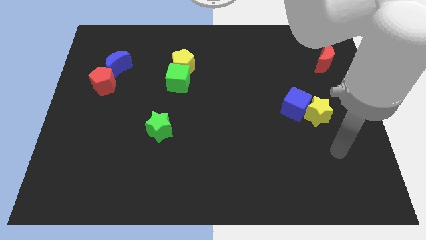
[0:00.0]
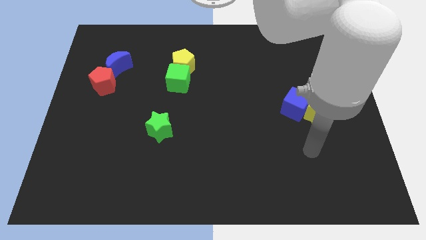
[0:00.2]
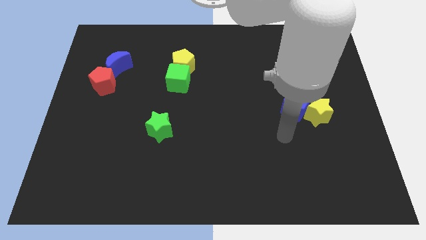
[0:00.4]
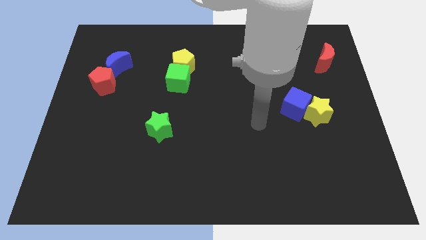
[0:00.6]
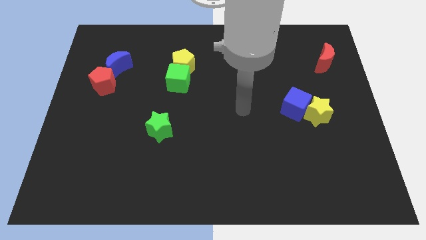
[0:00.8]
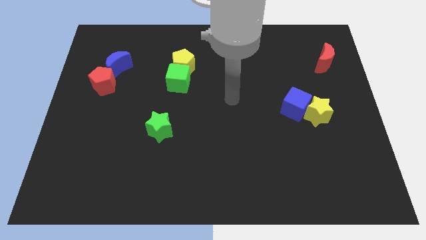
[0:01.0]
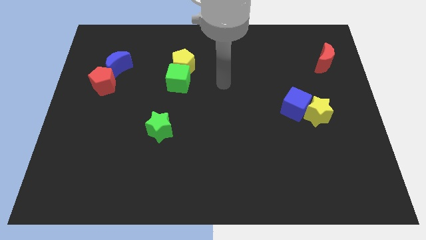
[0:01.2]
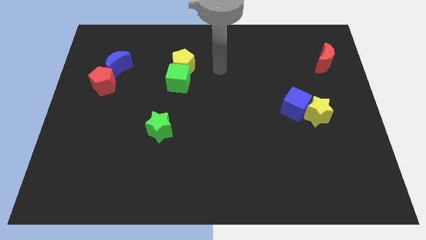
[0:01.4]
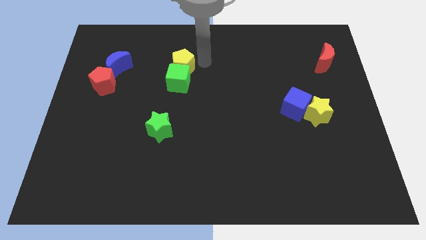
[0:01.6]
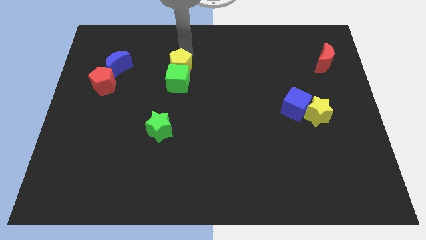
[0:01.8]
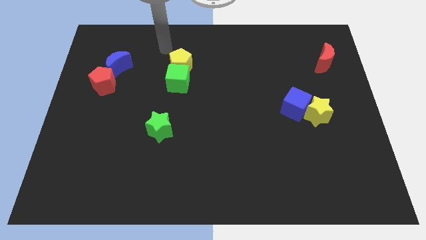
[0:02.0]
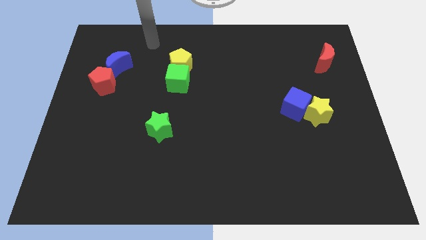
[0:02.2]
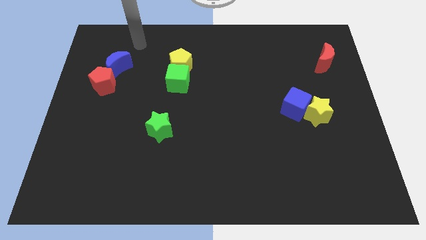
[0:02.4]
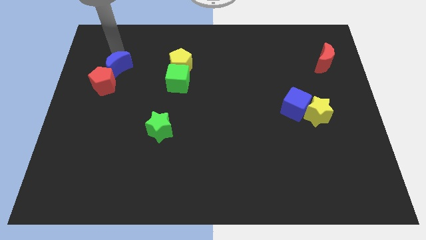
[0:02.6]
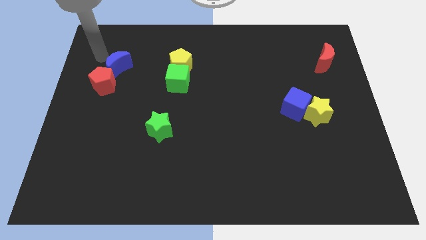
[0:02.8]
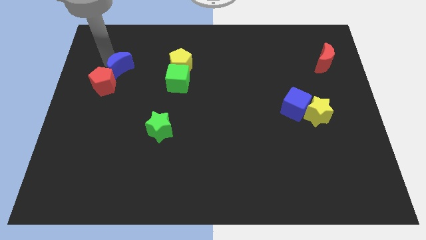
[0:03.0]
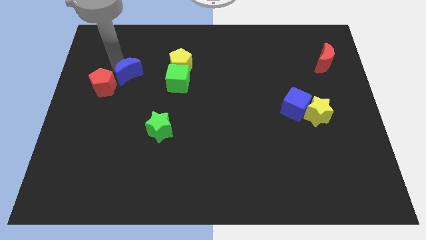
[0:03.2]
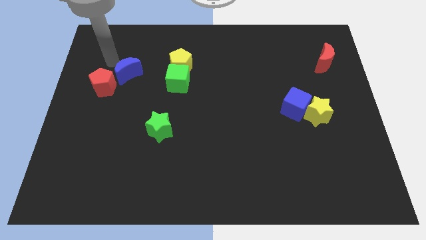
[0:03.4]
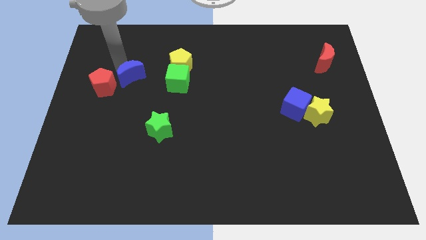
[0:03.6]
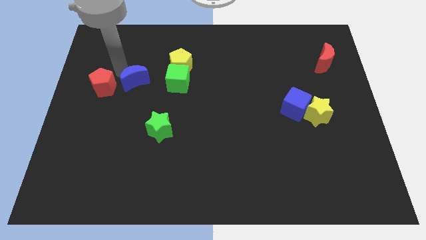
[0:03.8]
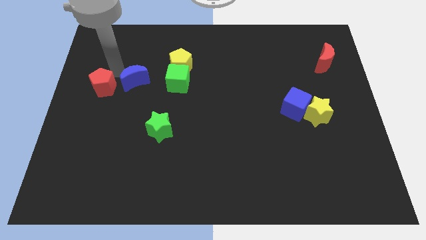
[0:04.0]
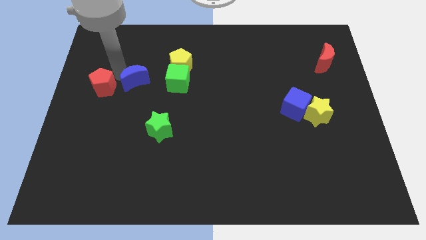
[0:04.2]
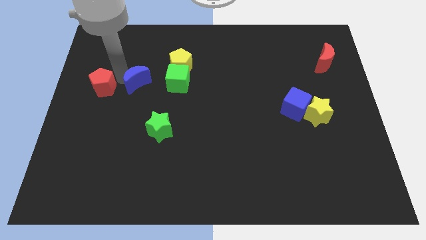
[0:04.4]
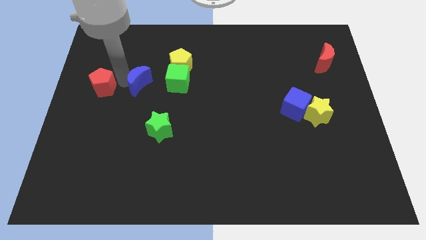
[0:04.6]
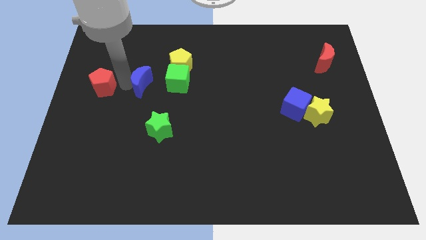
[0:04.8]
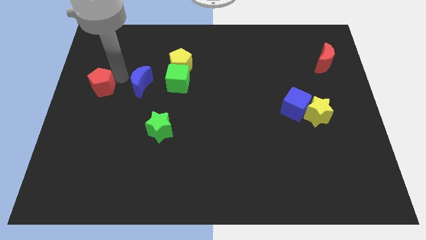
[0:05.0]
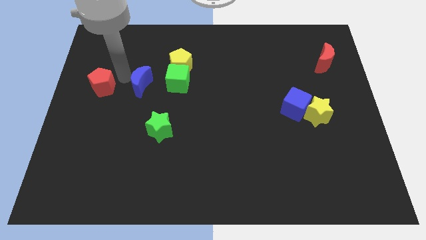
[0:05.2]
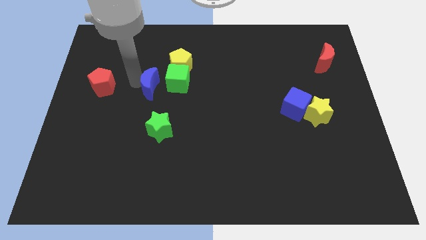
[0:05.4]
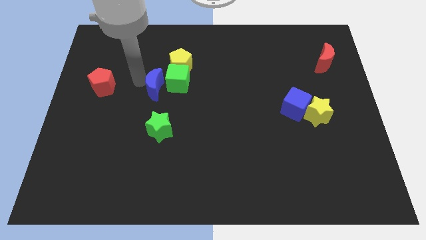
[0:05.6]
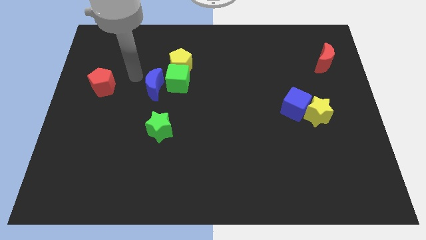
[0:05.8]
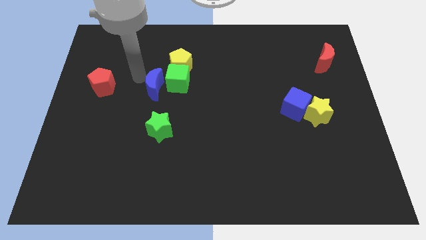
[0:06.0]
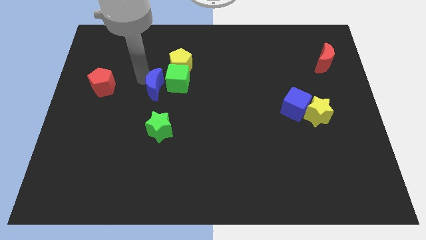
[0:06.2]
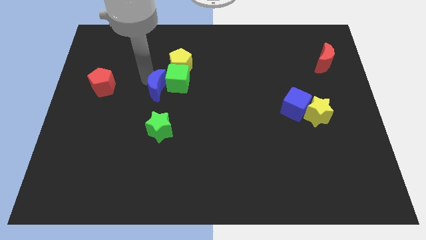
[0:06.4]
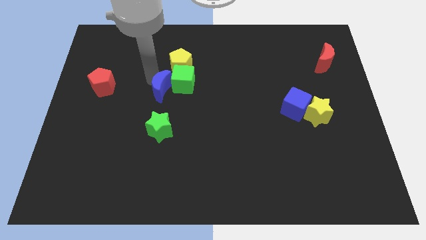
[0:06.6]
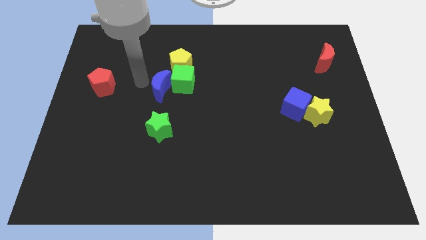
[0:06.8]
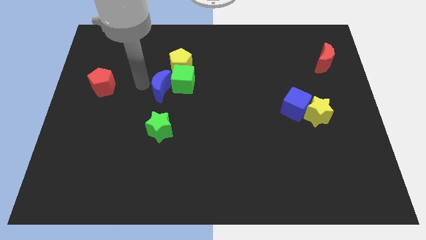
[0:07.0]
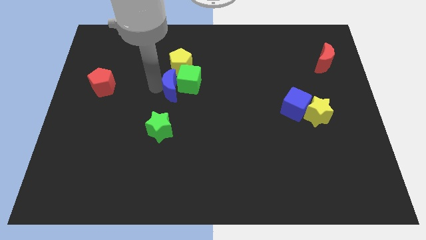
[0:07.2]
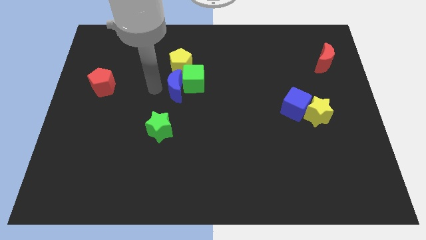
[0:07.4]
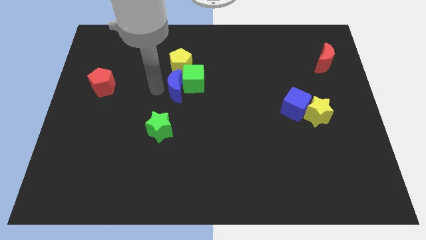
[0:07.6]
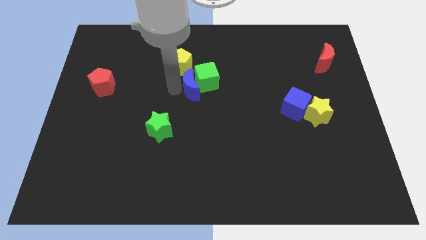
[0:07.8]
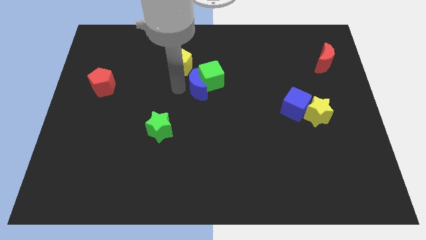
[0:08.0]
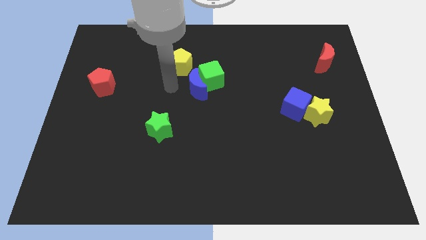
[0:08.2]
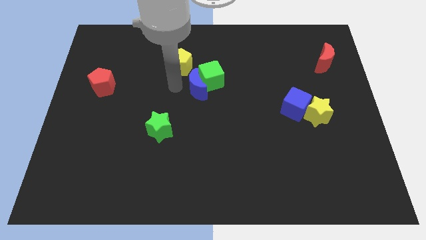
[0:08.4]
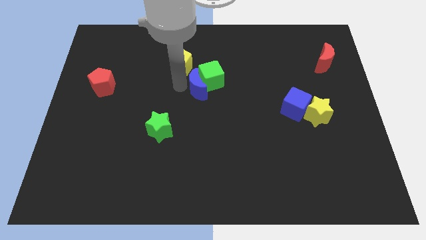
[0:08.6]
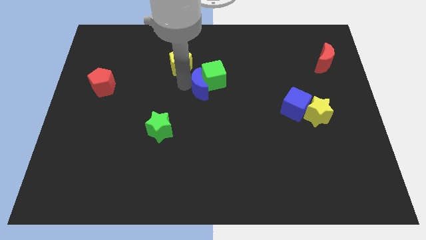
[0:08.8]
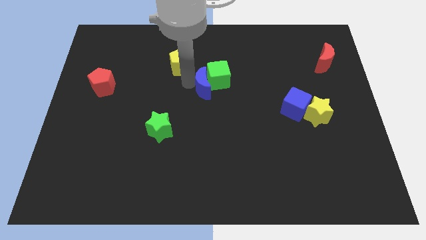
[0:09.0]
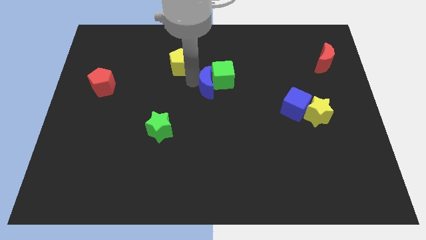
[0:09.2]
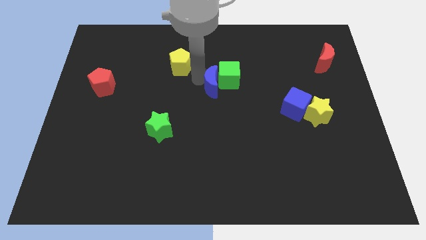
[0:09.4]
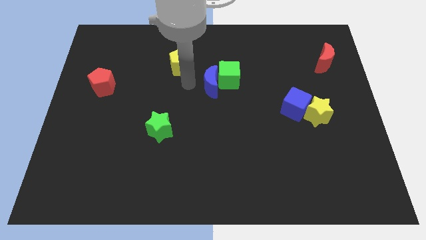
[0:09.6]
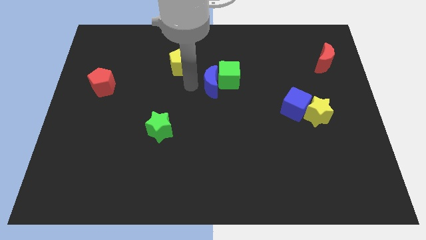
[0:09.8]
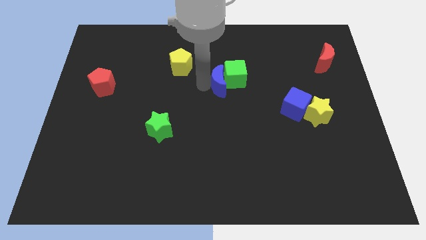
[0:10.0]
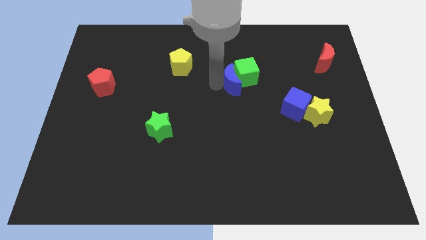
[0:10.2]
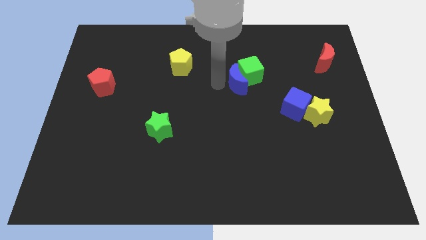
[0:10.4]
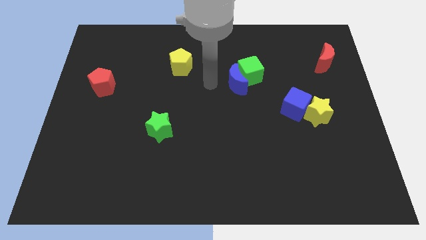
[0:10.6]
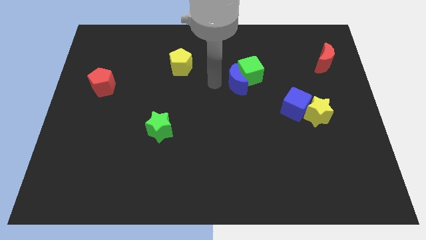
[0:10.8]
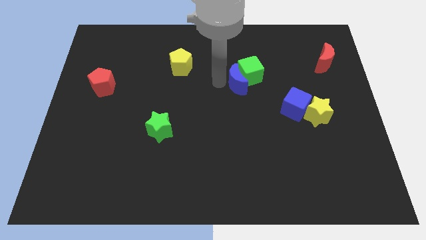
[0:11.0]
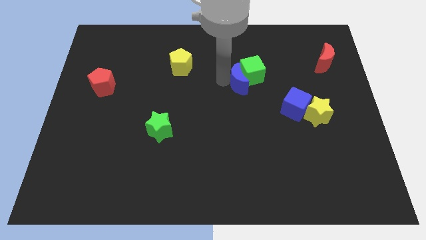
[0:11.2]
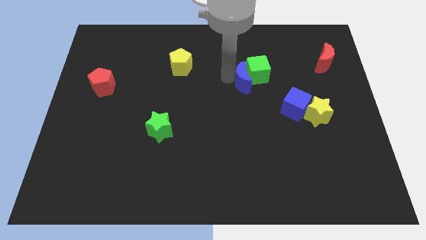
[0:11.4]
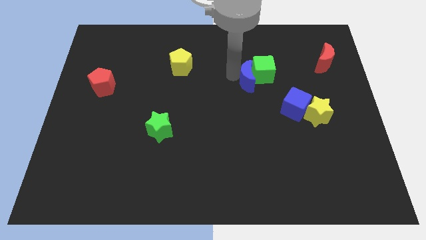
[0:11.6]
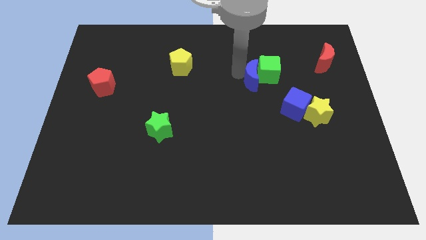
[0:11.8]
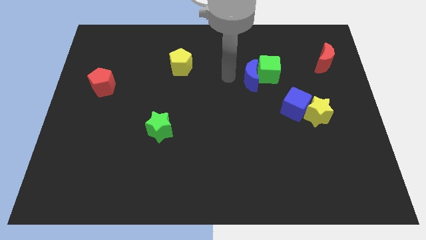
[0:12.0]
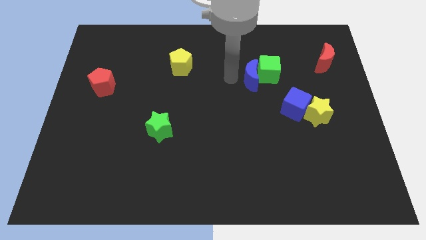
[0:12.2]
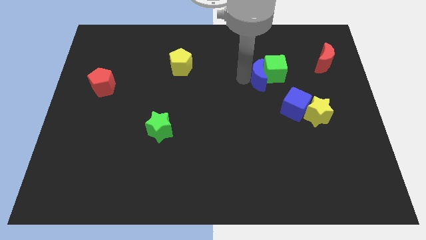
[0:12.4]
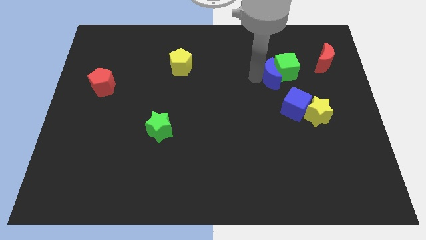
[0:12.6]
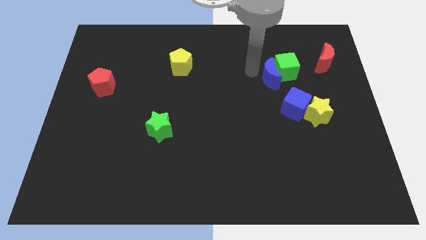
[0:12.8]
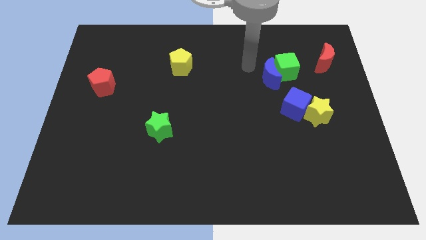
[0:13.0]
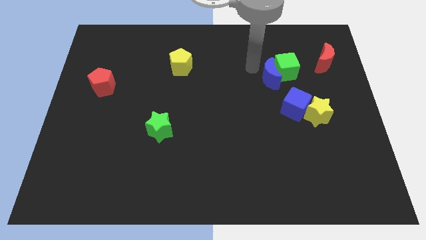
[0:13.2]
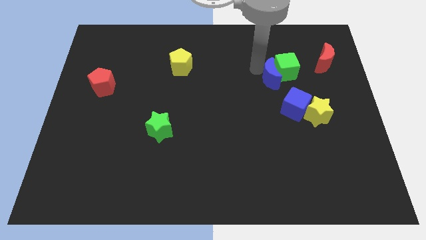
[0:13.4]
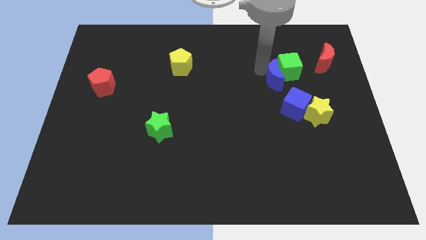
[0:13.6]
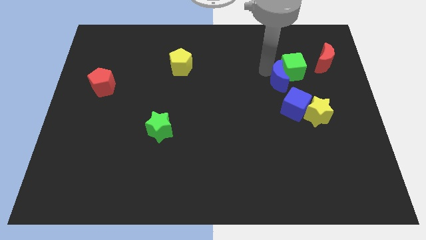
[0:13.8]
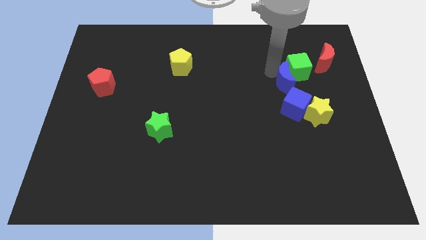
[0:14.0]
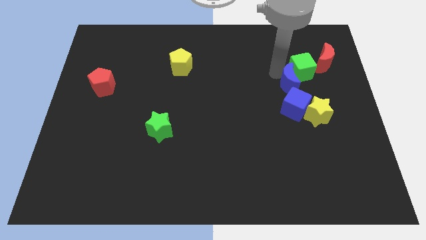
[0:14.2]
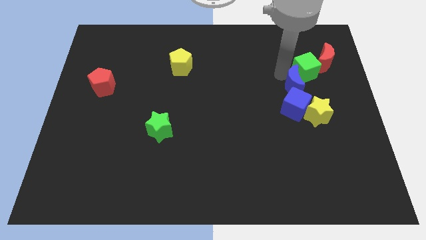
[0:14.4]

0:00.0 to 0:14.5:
slide the blue moon diagonally up and to the right of the blue cube
